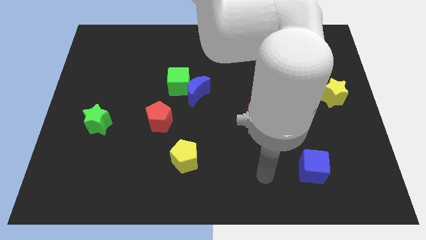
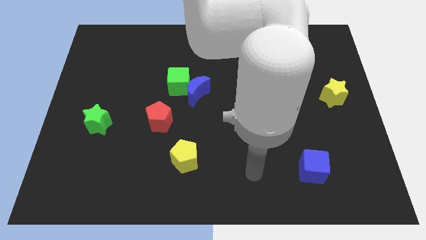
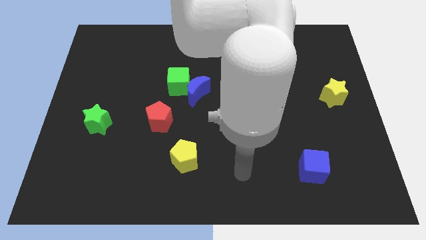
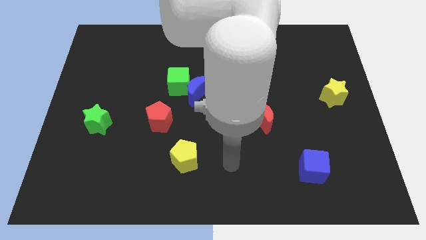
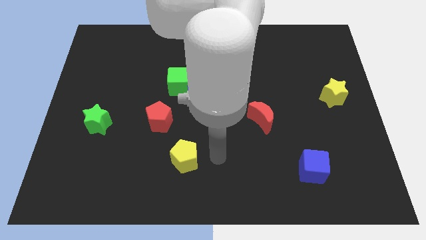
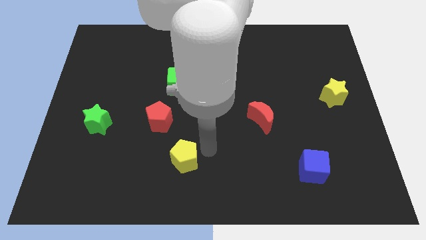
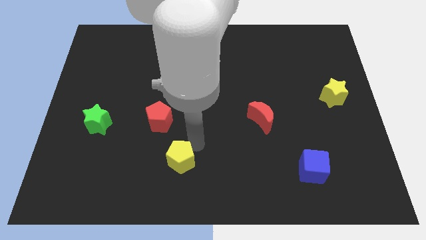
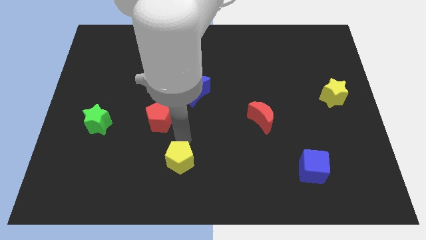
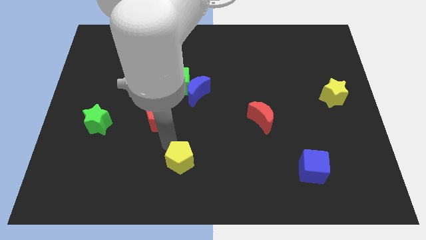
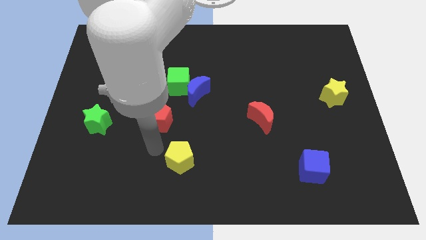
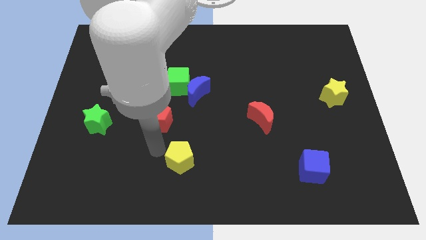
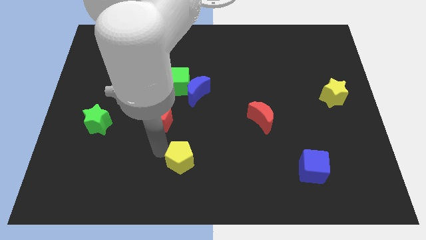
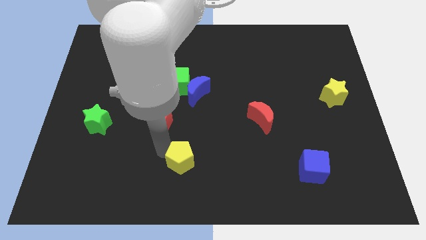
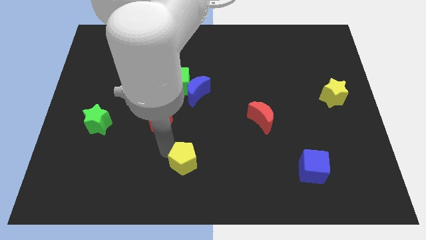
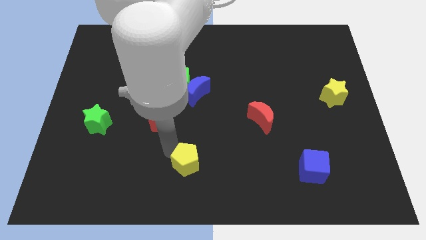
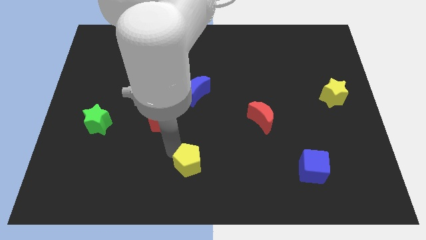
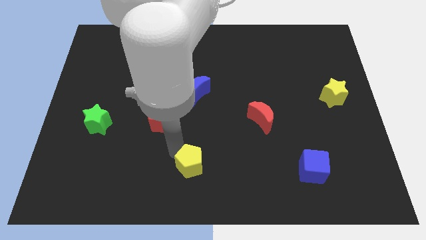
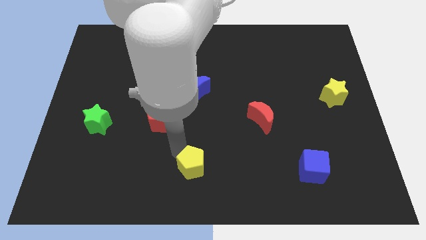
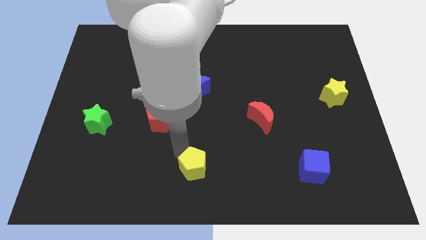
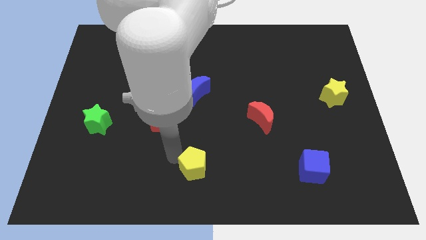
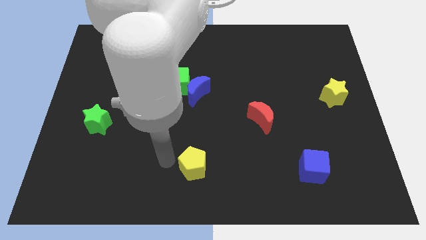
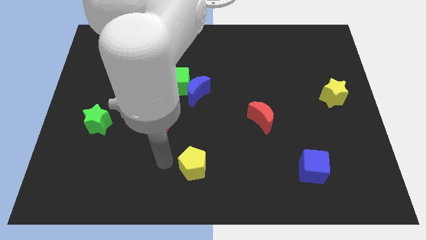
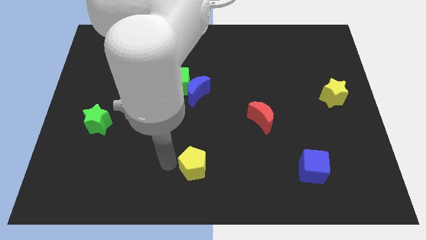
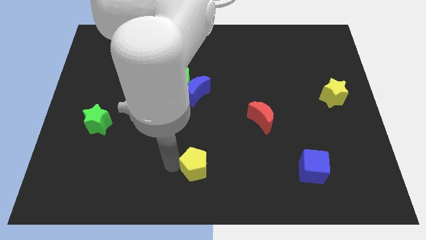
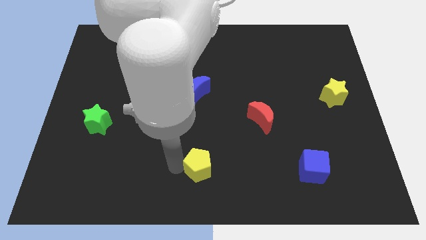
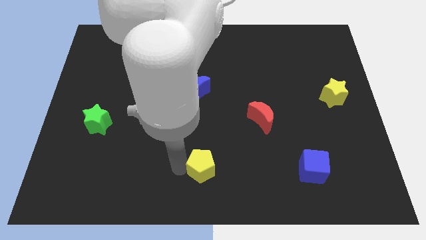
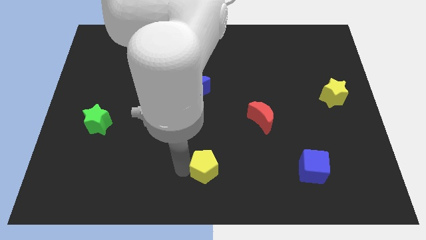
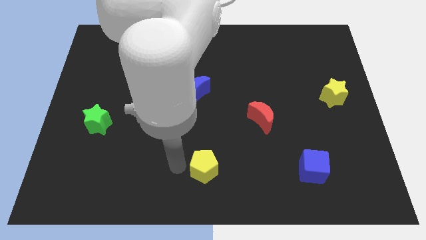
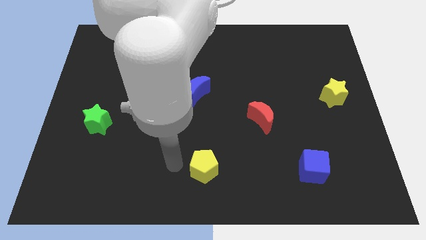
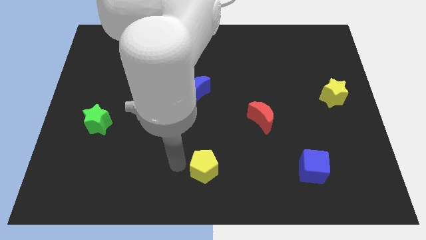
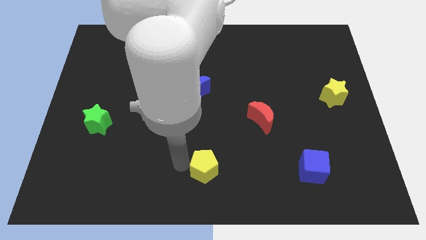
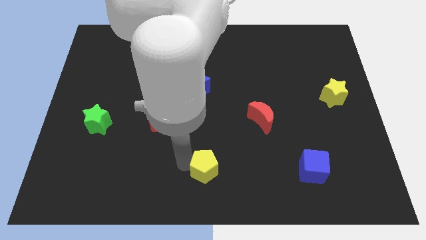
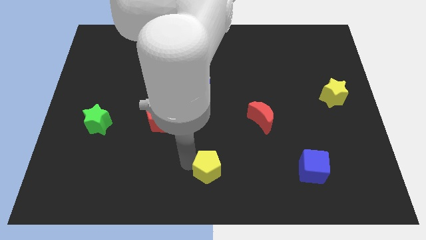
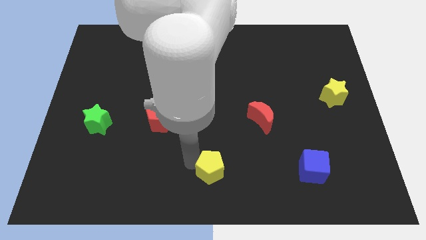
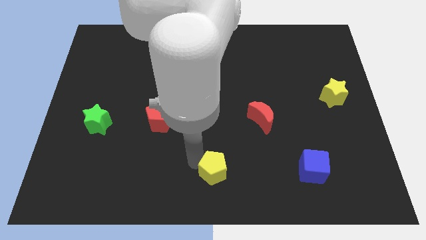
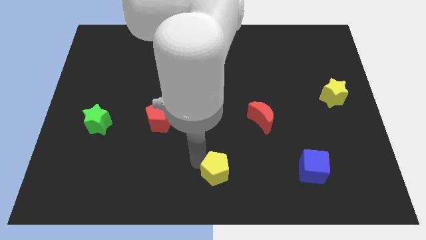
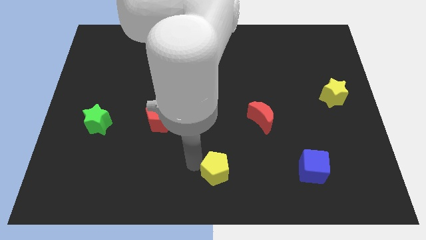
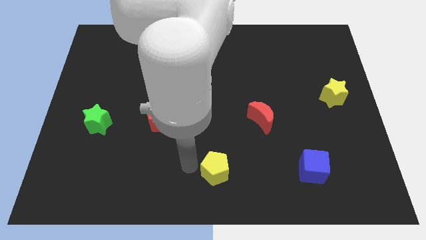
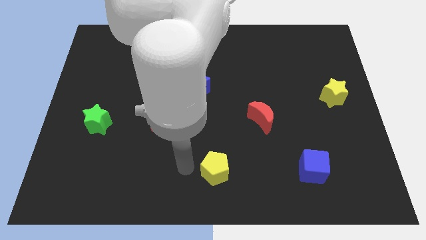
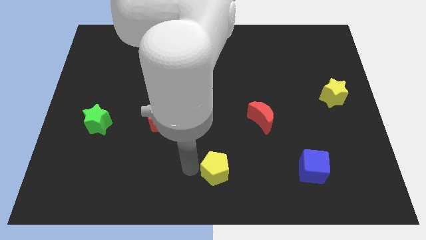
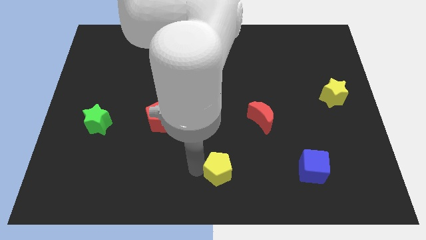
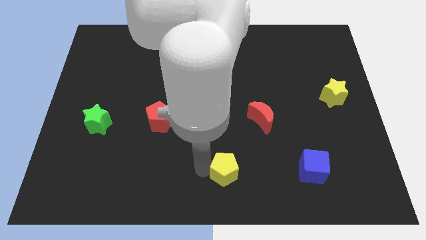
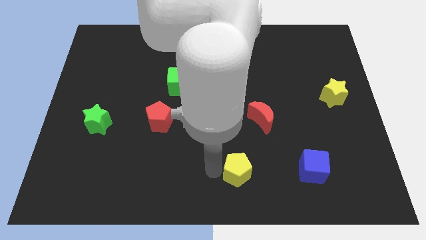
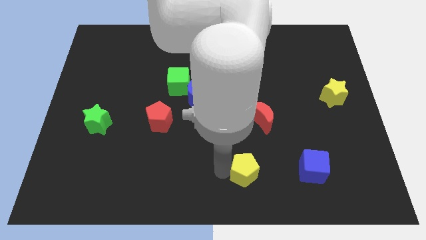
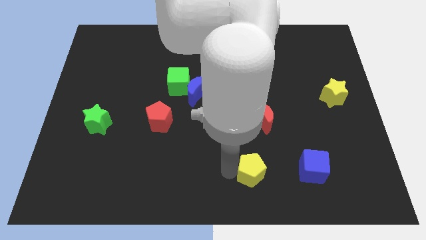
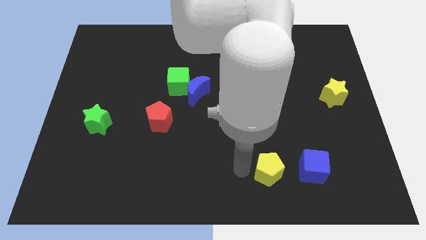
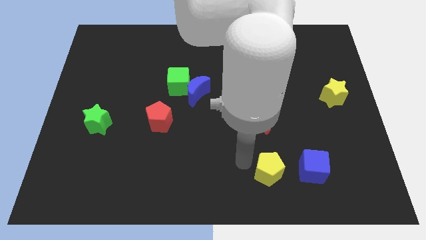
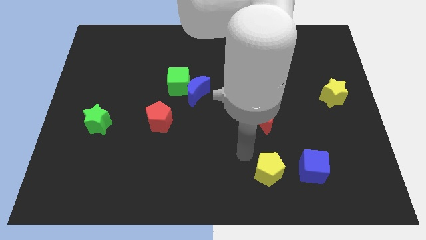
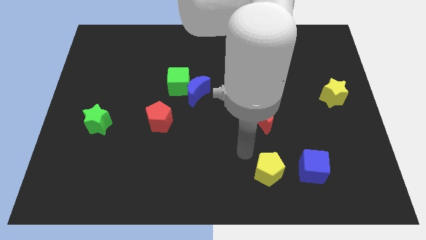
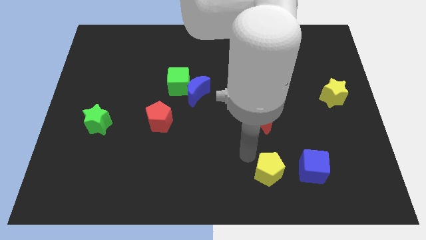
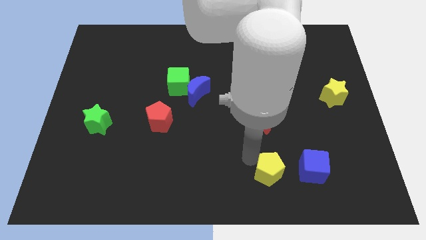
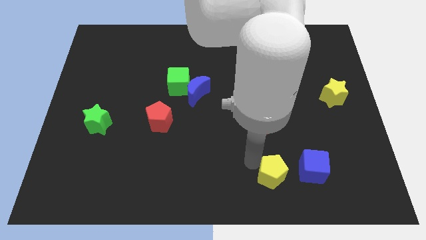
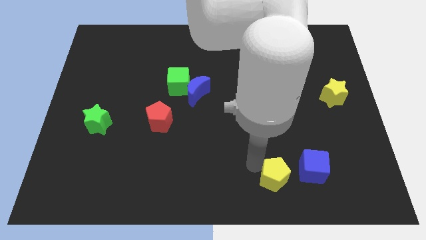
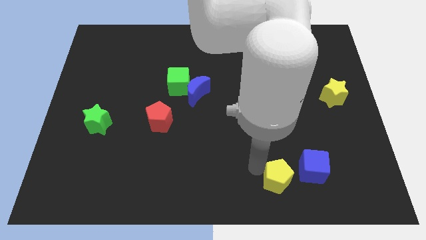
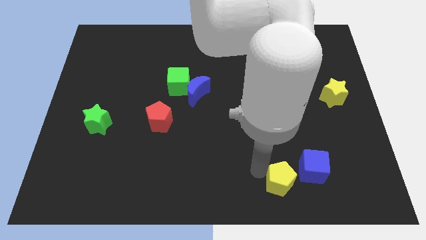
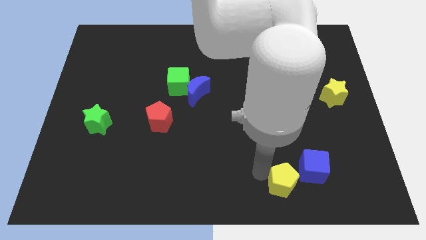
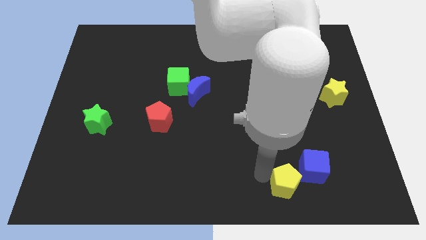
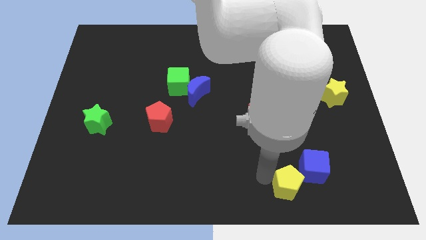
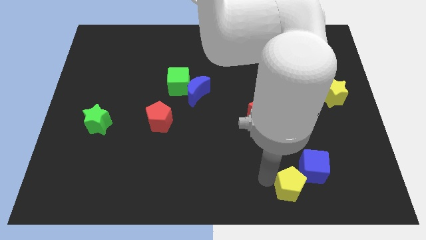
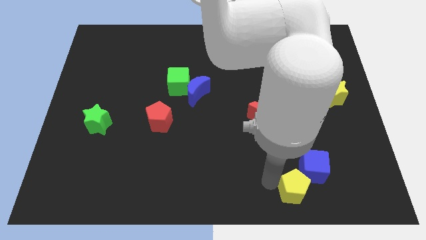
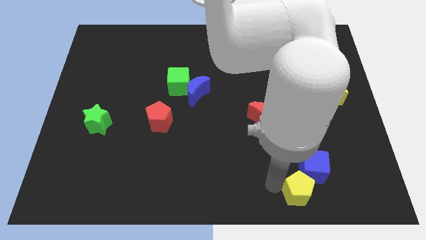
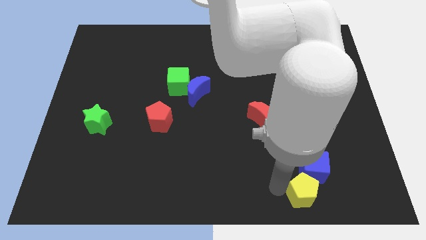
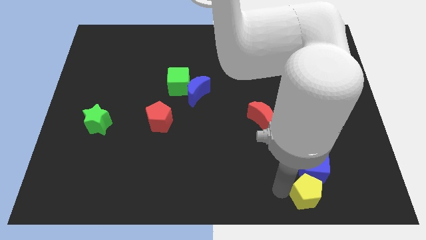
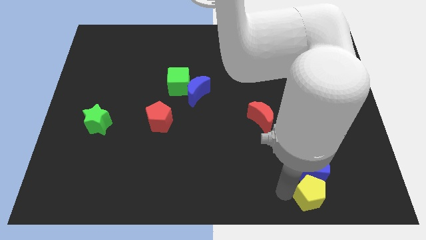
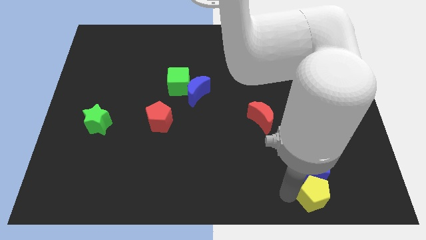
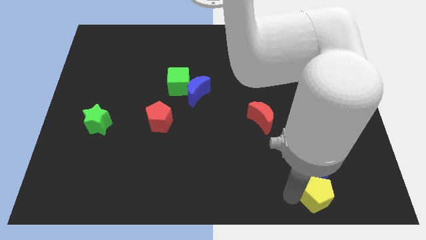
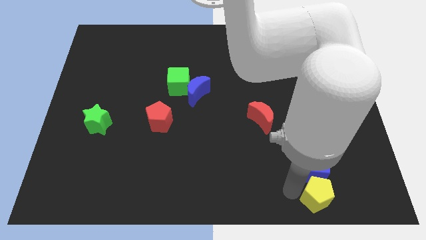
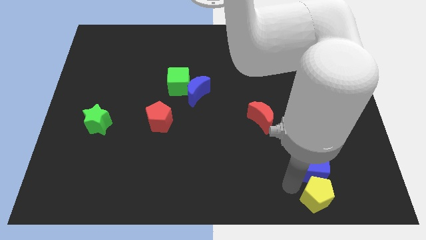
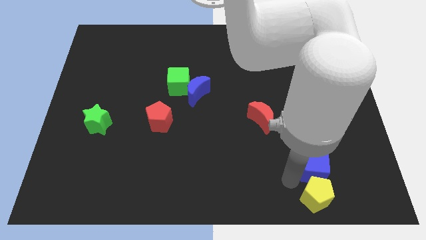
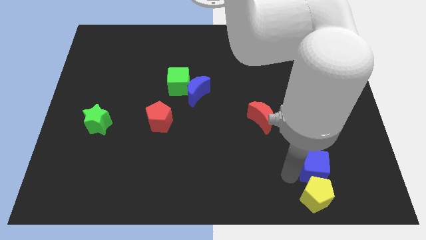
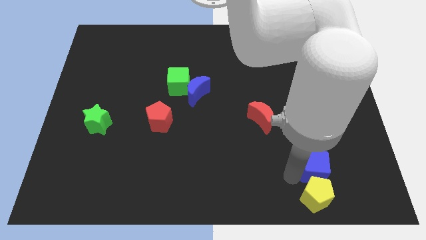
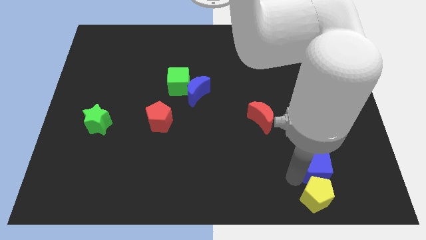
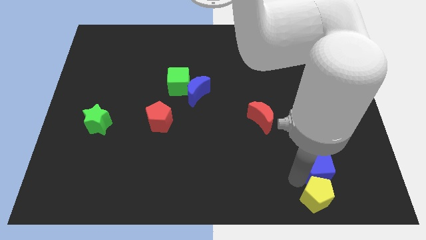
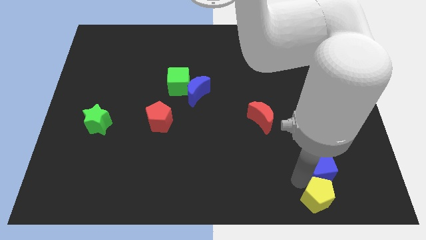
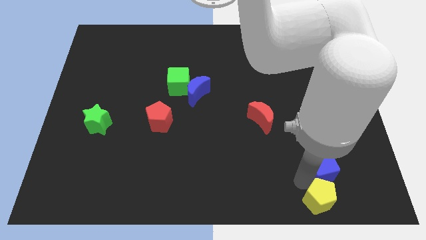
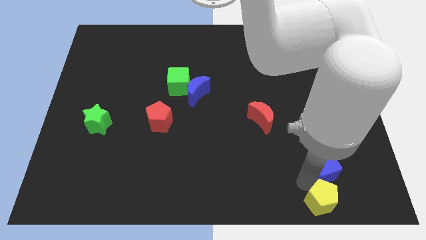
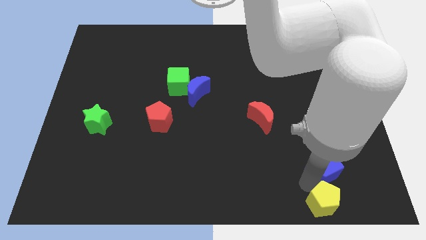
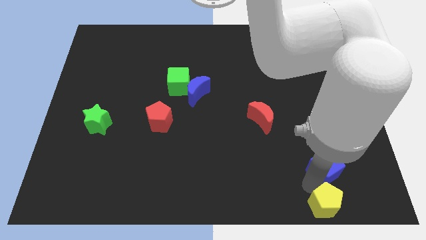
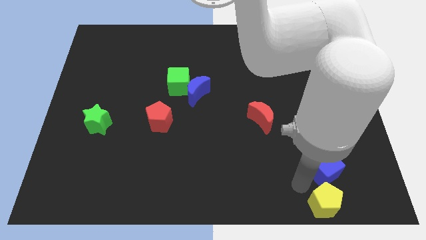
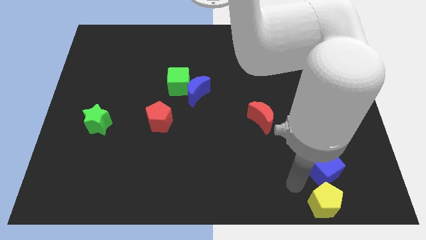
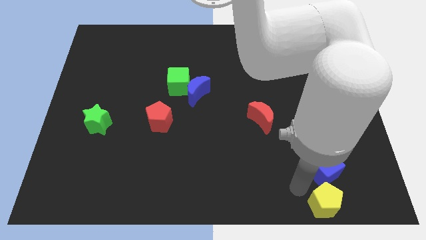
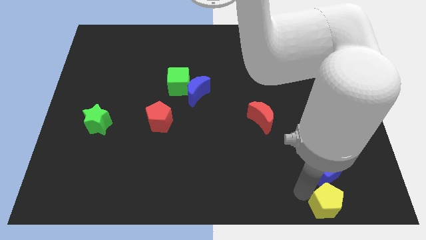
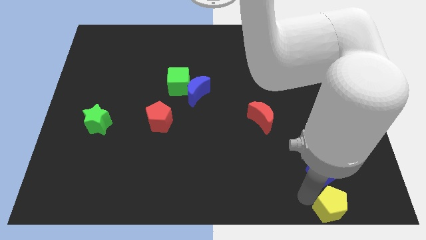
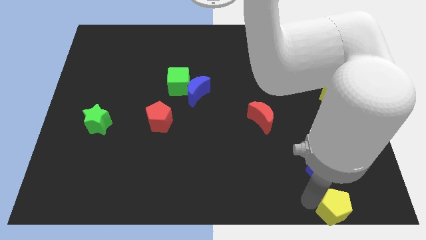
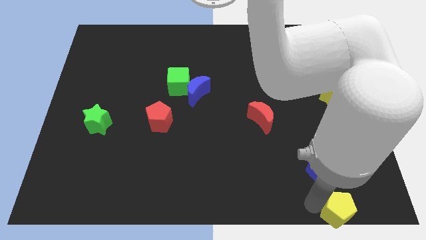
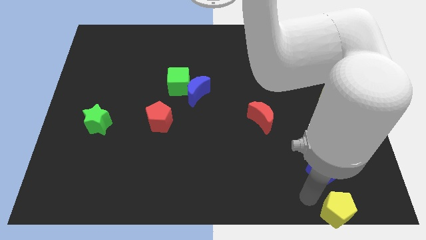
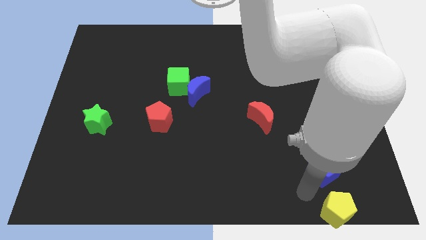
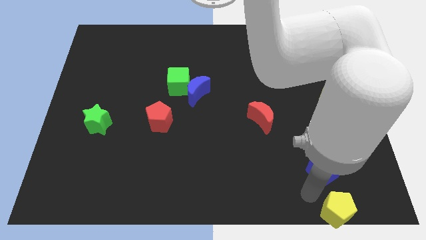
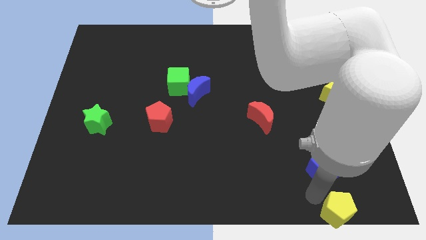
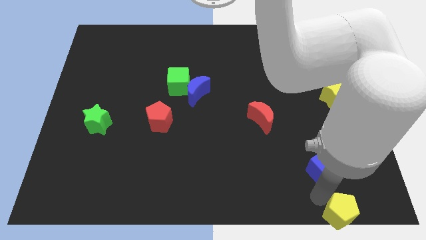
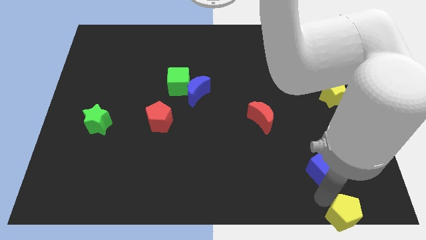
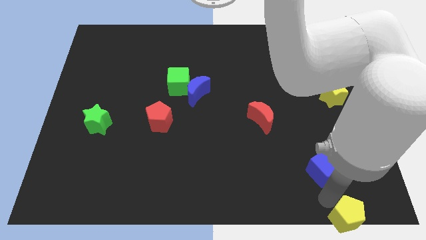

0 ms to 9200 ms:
move the yellow pentagon to the bottom right
